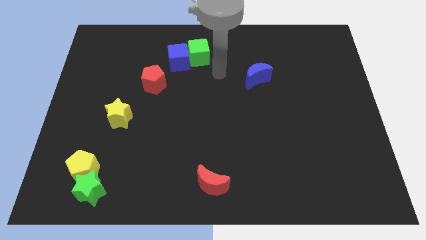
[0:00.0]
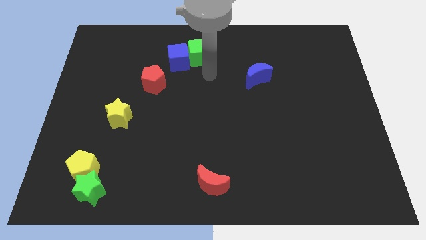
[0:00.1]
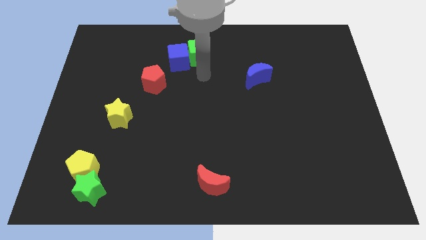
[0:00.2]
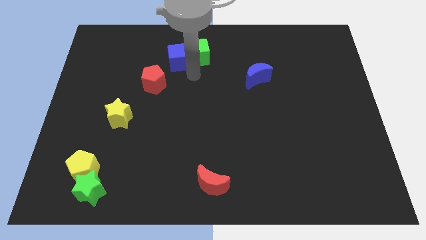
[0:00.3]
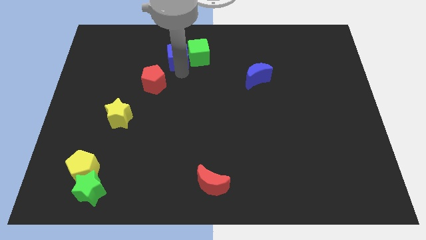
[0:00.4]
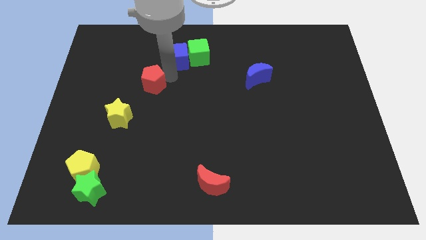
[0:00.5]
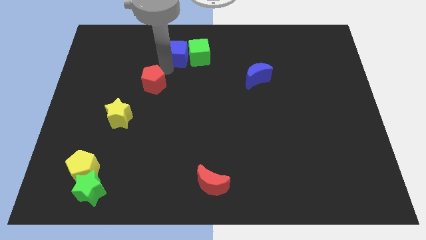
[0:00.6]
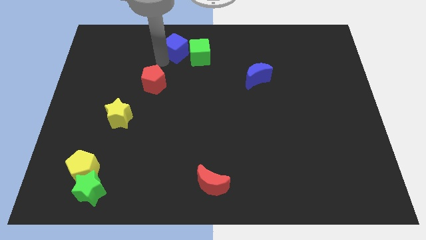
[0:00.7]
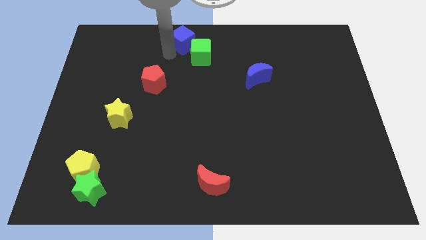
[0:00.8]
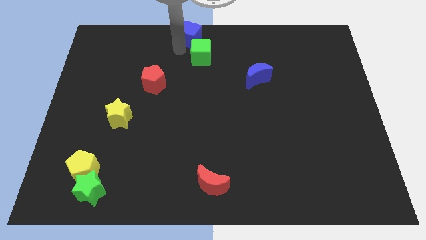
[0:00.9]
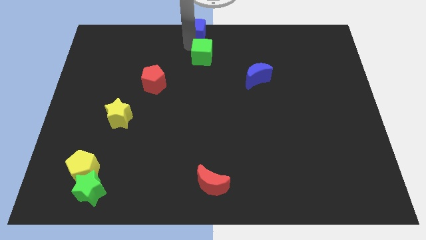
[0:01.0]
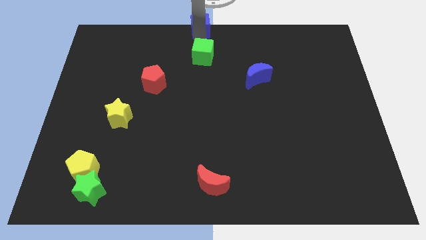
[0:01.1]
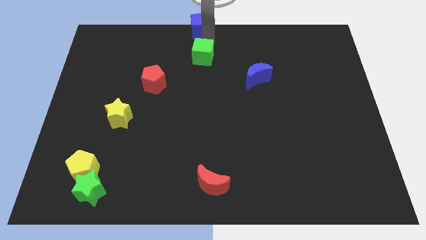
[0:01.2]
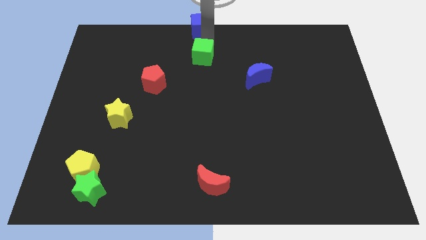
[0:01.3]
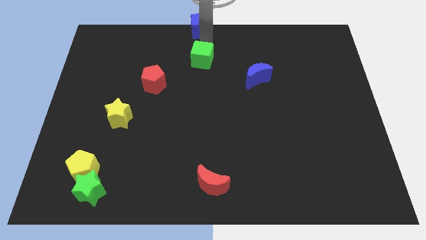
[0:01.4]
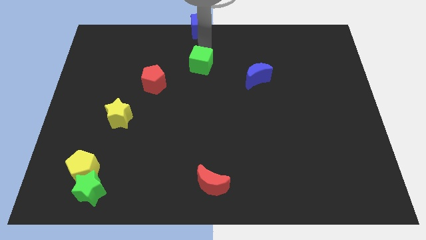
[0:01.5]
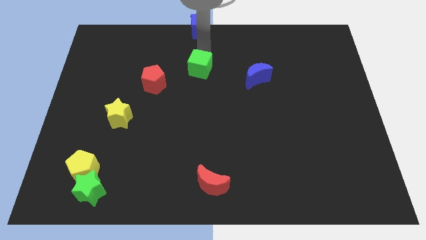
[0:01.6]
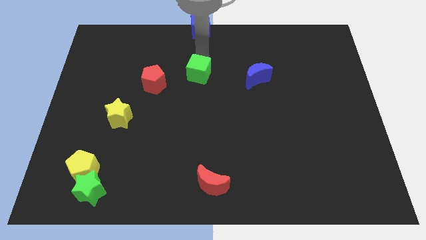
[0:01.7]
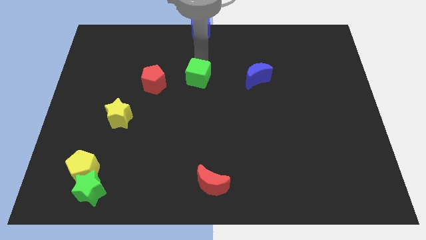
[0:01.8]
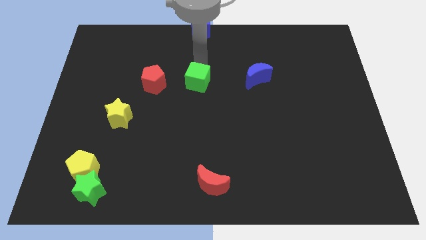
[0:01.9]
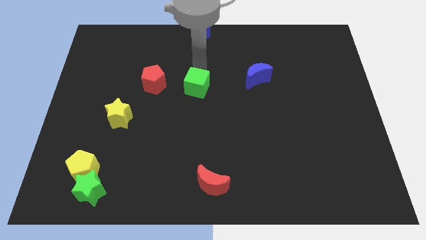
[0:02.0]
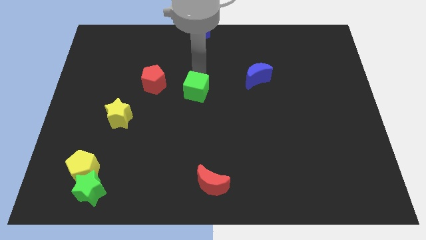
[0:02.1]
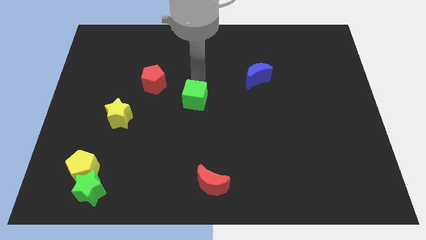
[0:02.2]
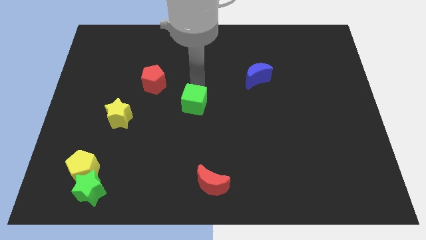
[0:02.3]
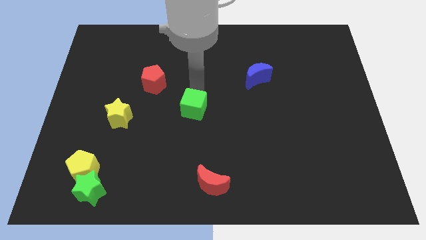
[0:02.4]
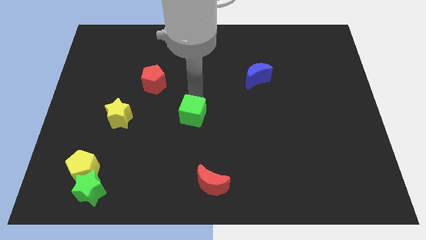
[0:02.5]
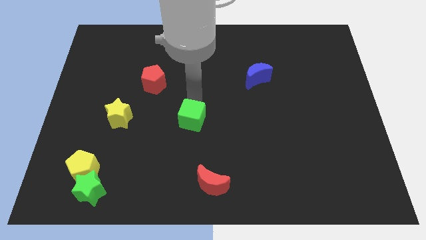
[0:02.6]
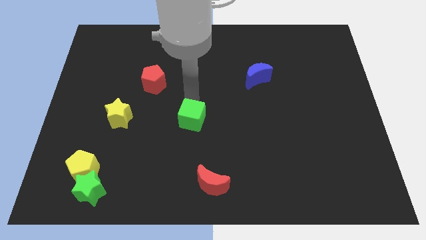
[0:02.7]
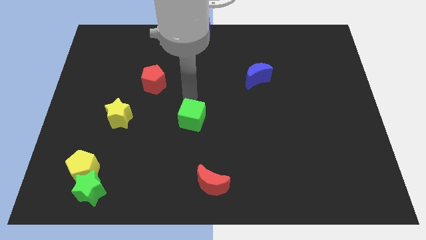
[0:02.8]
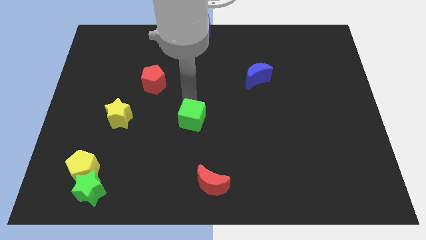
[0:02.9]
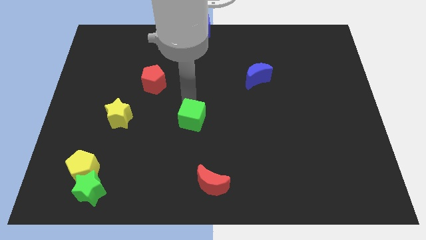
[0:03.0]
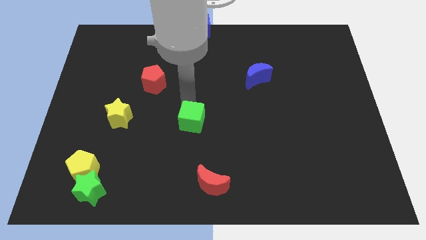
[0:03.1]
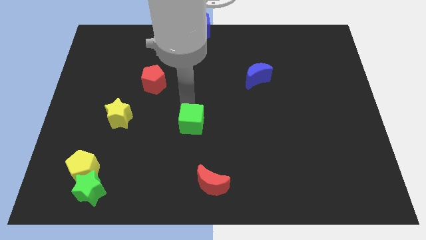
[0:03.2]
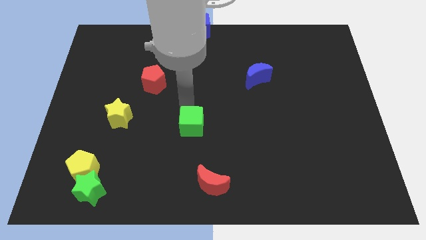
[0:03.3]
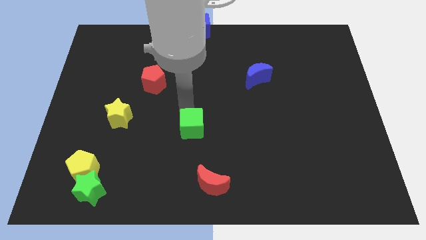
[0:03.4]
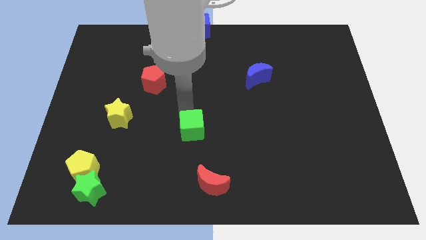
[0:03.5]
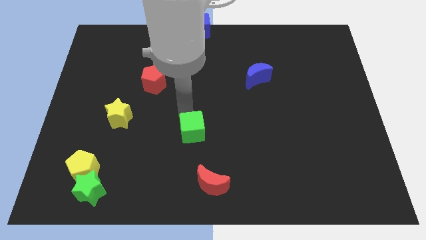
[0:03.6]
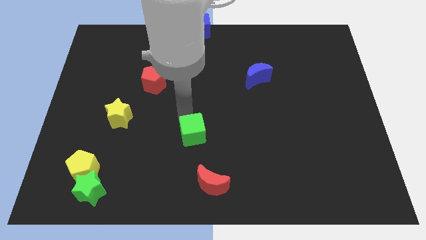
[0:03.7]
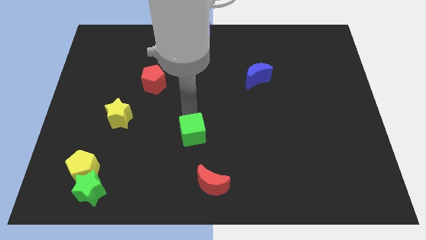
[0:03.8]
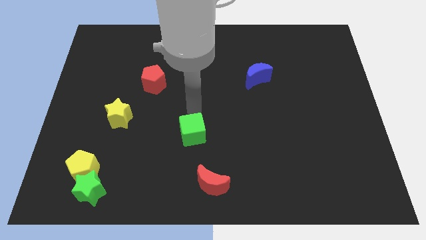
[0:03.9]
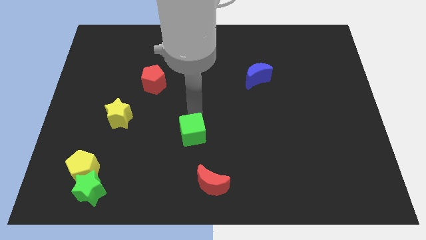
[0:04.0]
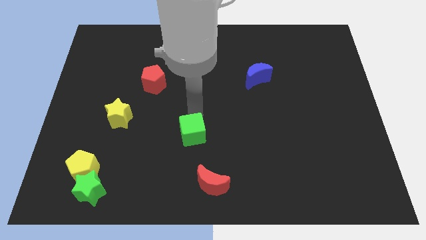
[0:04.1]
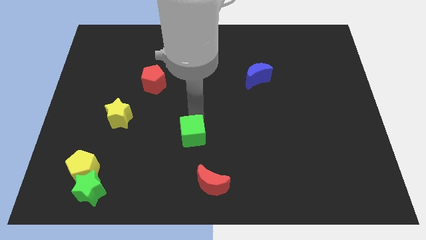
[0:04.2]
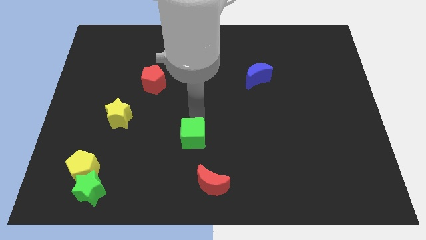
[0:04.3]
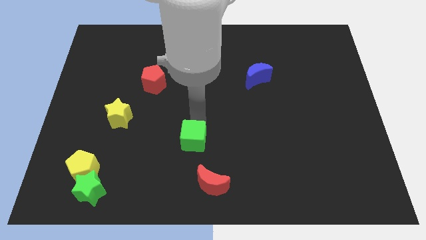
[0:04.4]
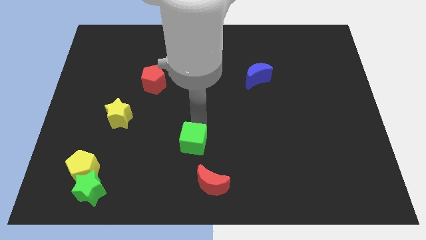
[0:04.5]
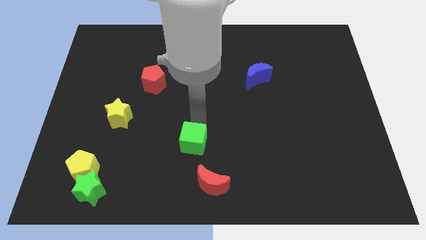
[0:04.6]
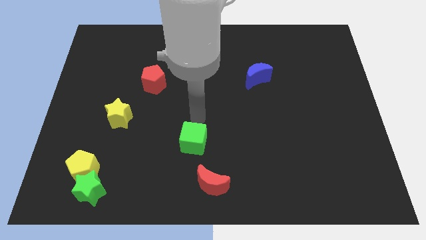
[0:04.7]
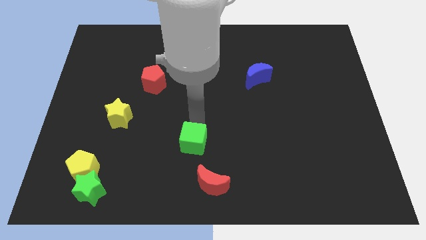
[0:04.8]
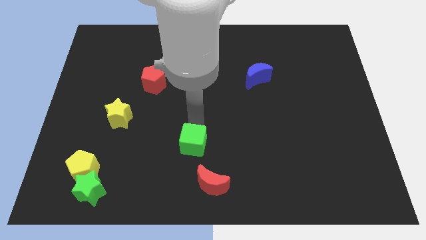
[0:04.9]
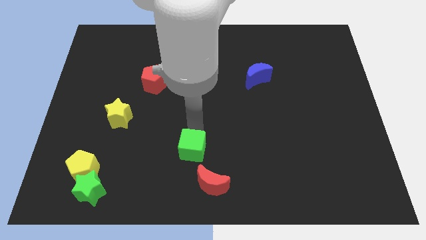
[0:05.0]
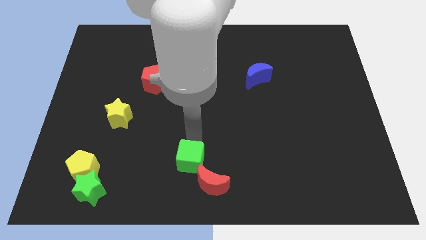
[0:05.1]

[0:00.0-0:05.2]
put the green cube to the bottom side
